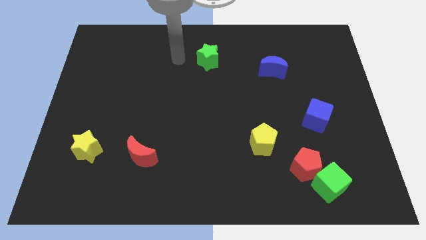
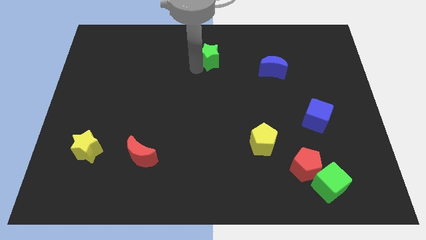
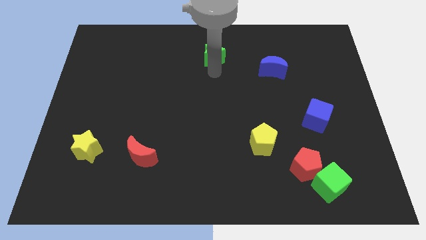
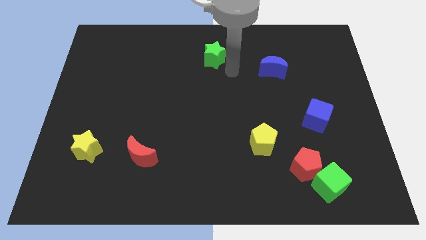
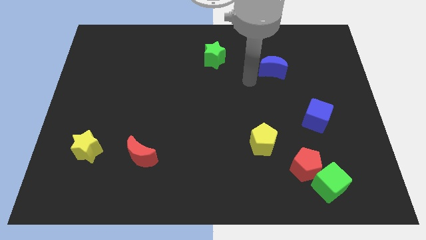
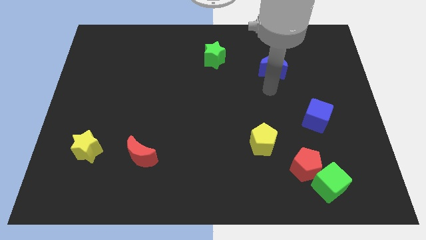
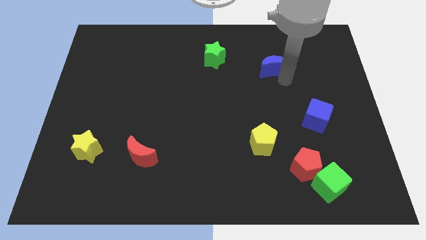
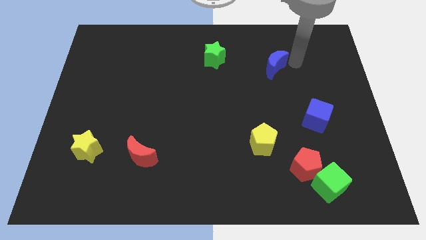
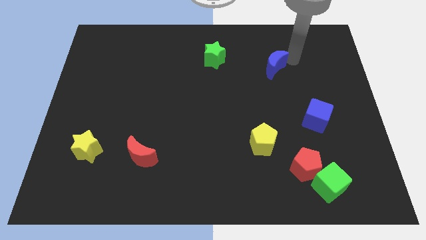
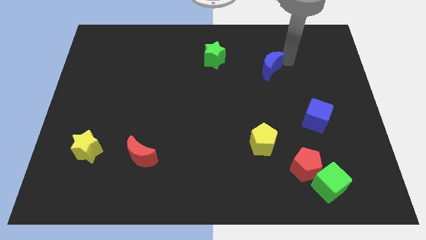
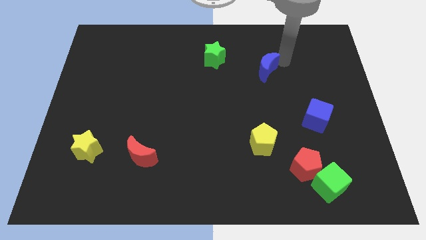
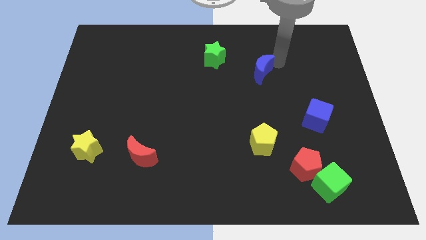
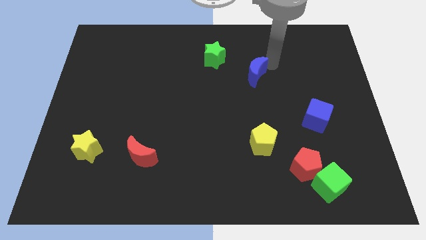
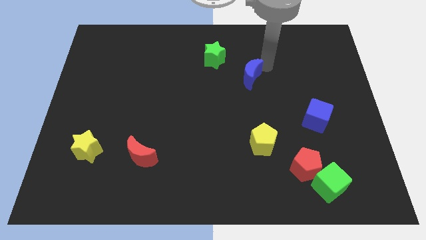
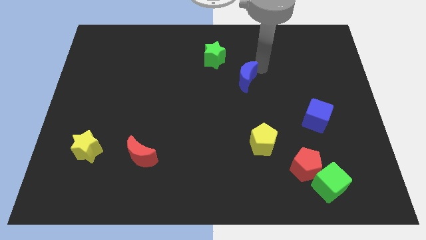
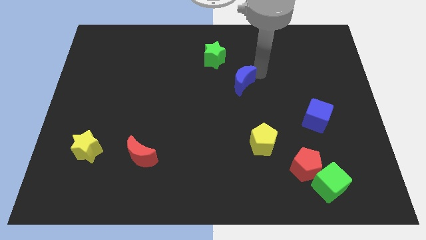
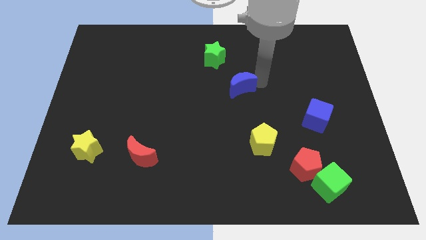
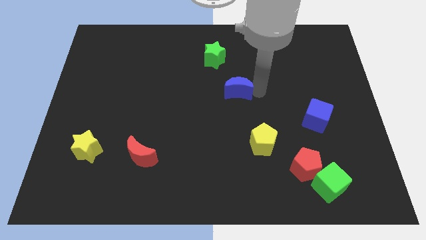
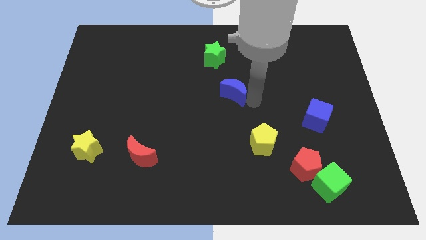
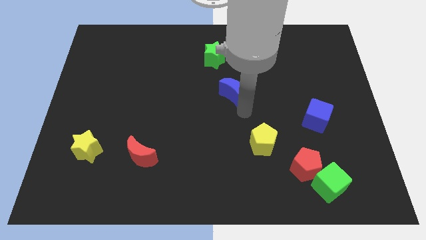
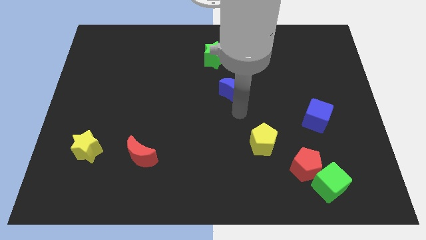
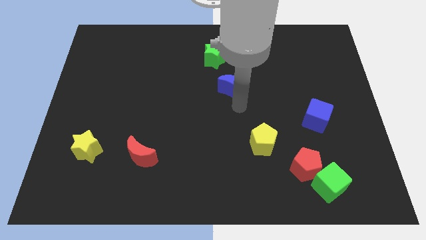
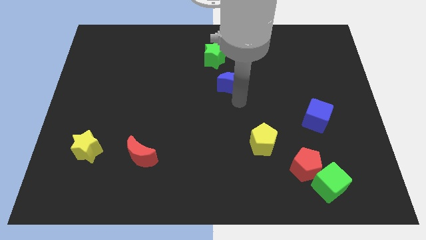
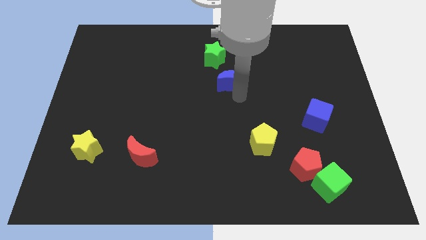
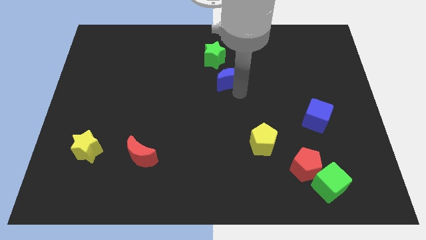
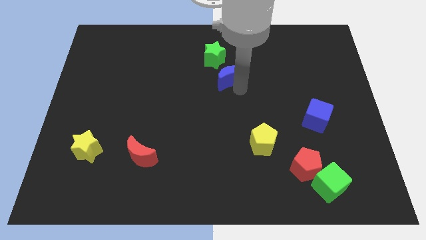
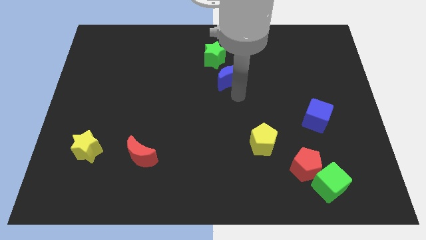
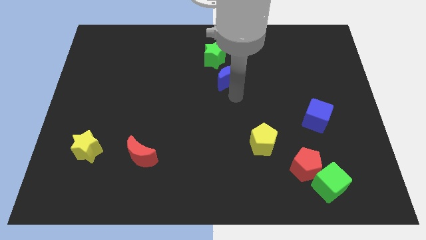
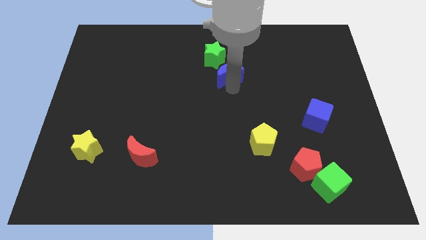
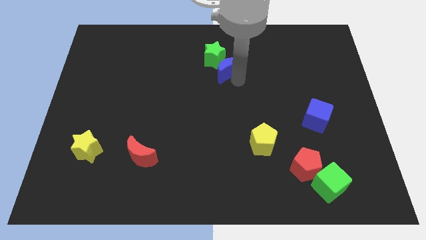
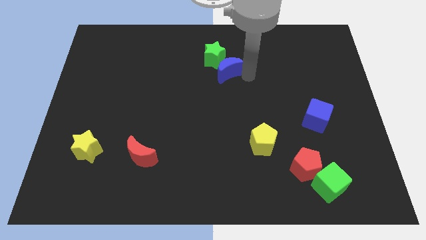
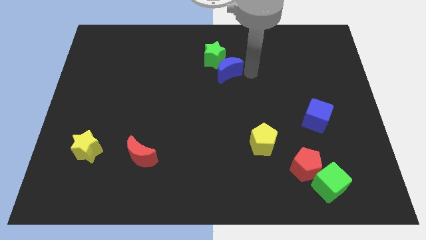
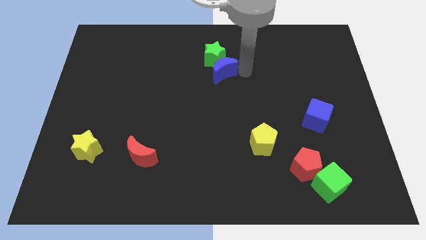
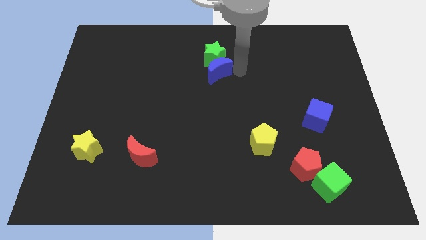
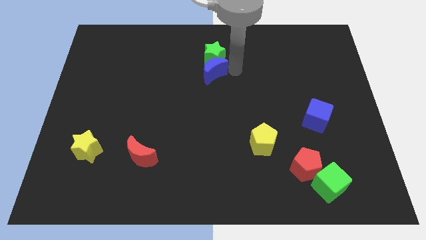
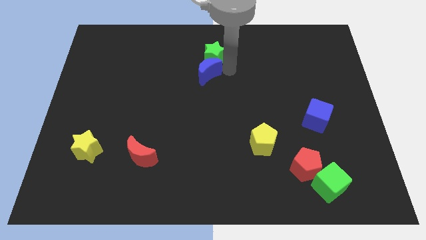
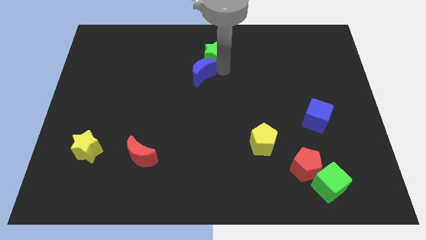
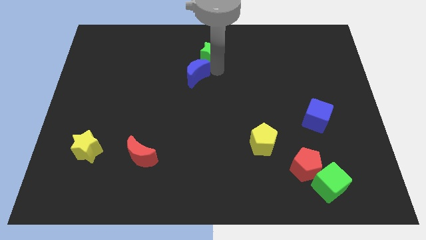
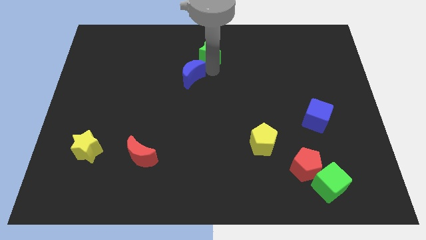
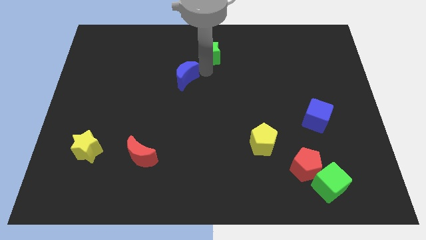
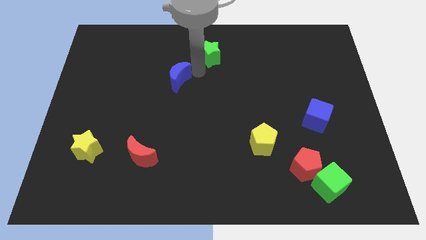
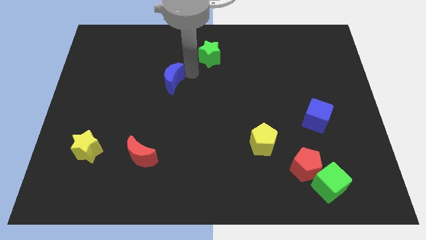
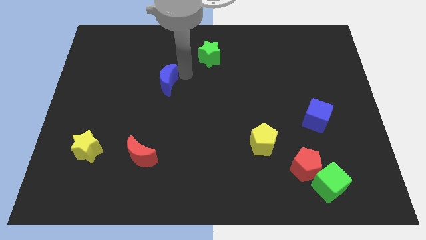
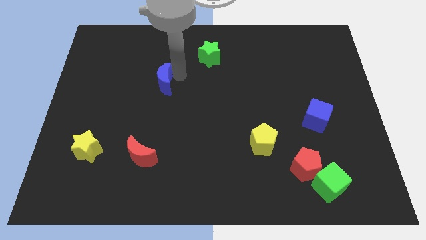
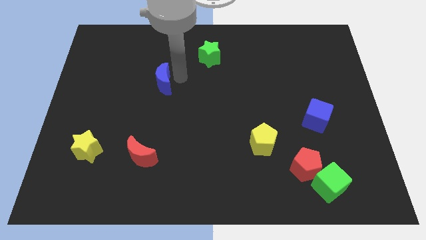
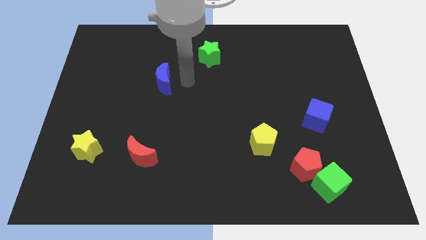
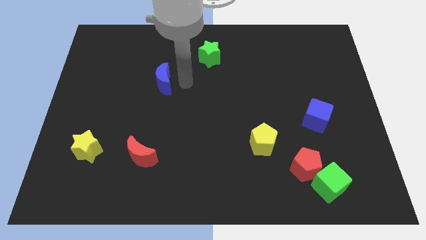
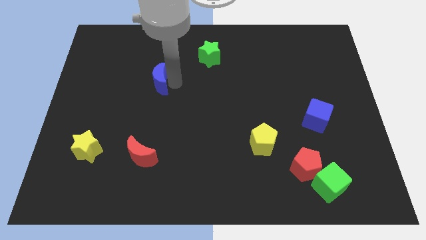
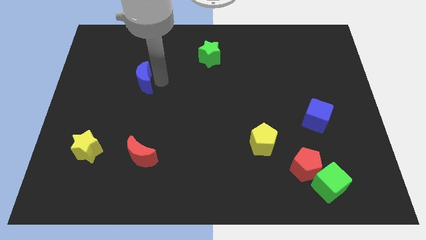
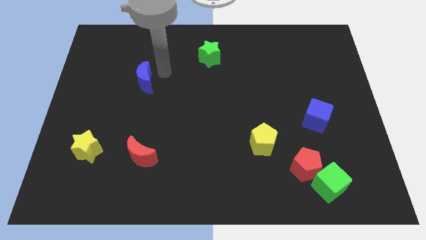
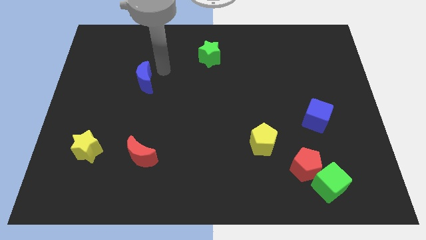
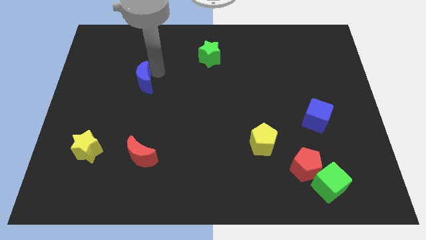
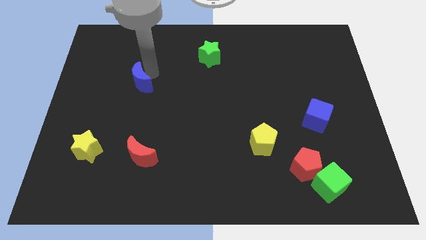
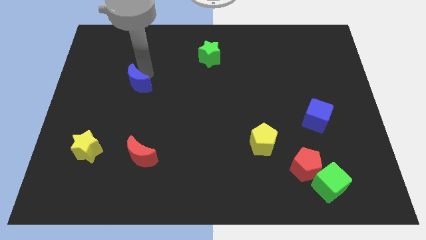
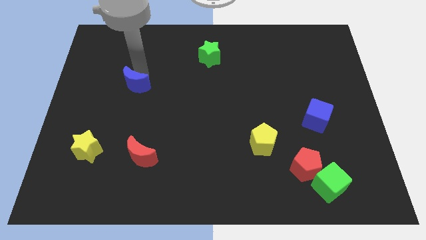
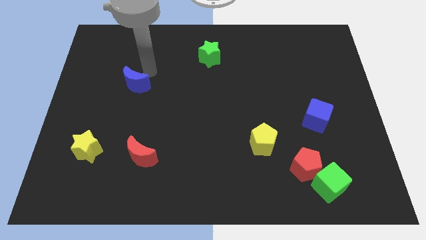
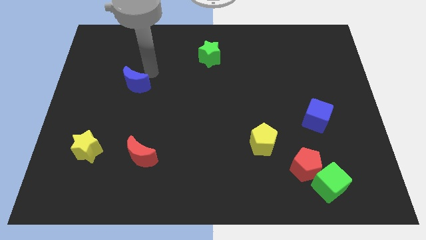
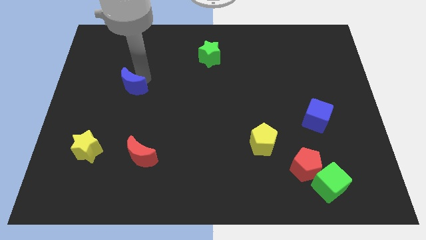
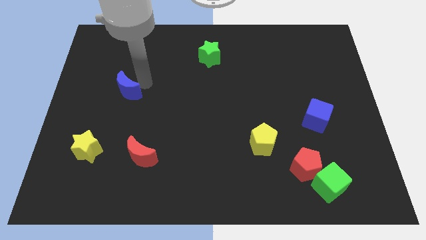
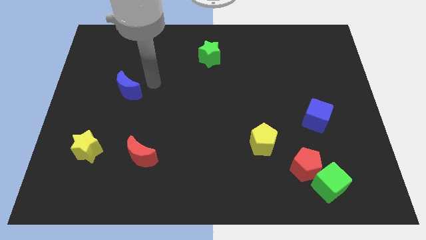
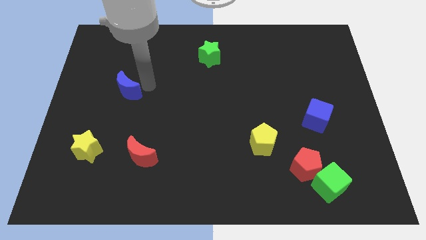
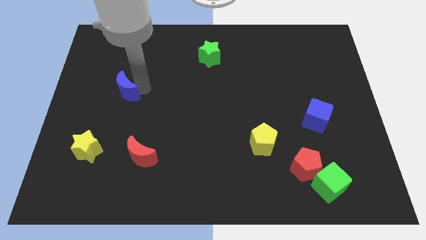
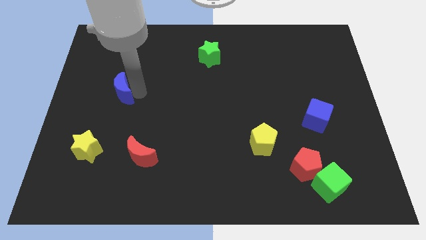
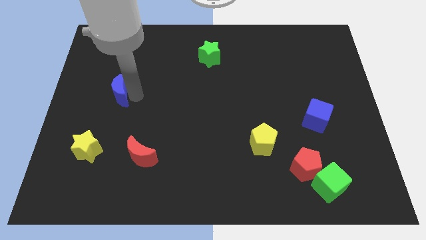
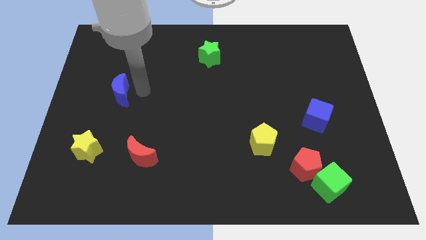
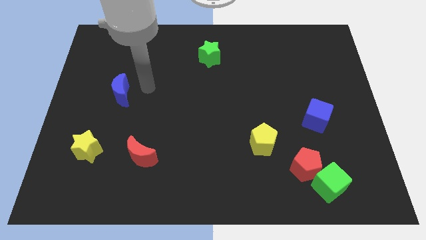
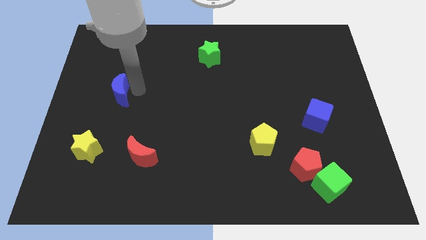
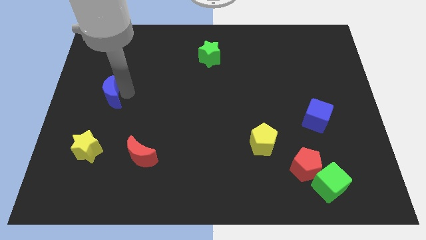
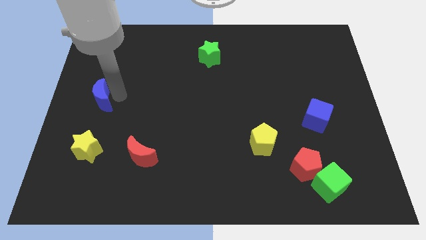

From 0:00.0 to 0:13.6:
slide the blue moon to the left side

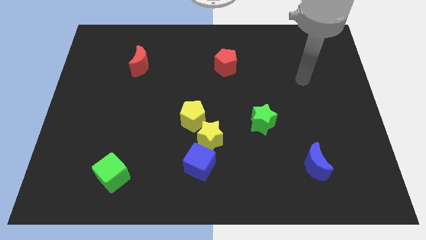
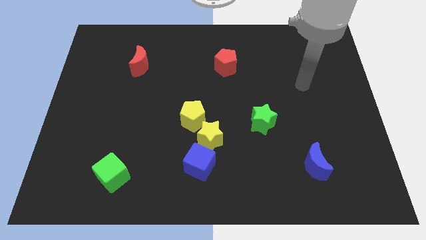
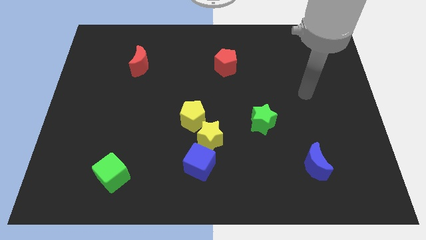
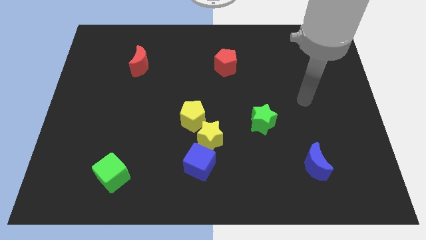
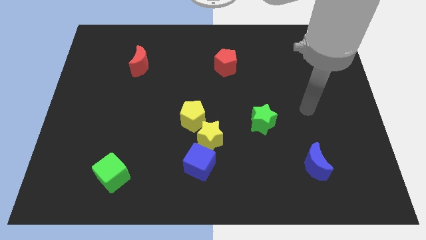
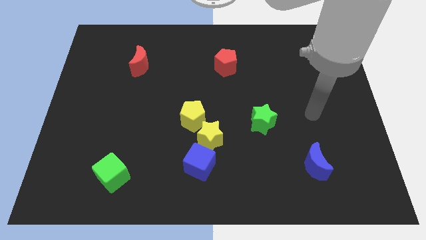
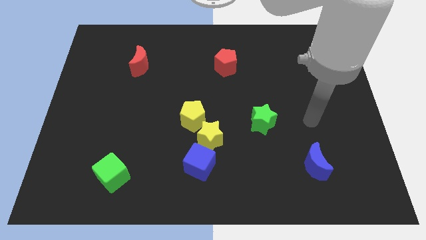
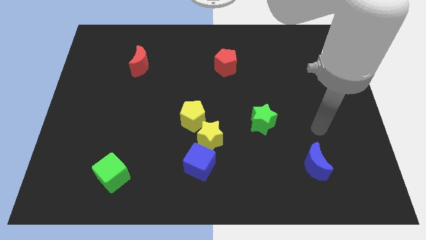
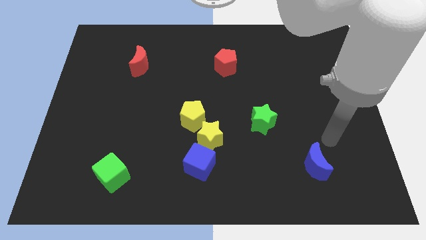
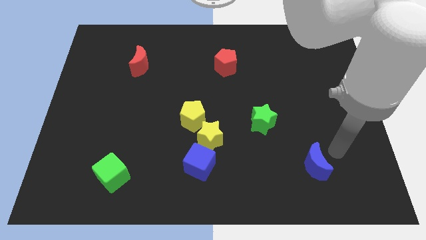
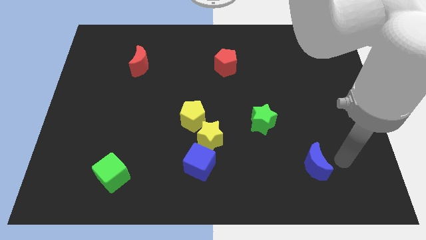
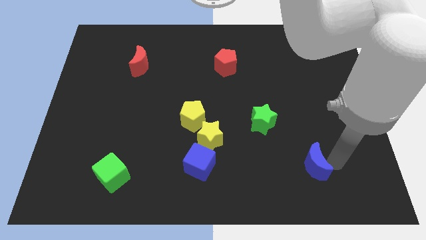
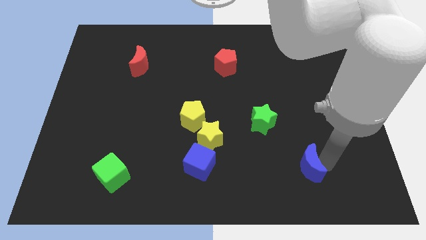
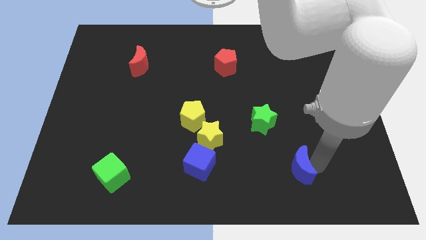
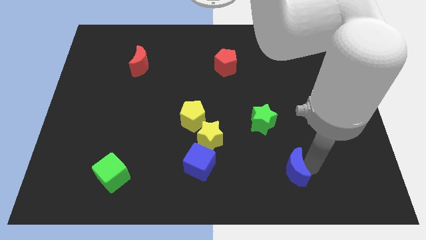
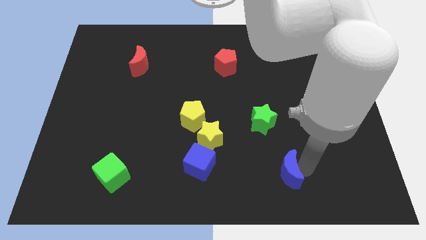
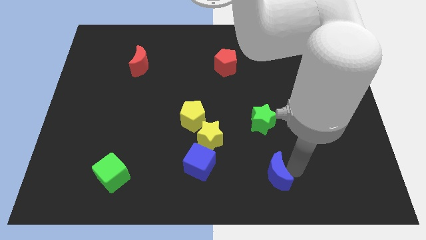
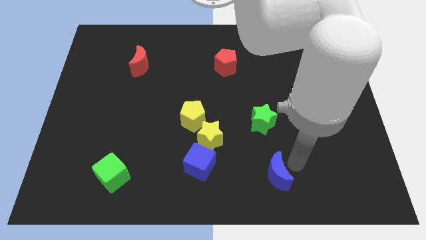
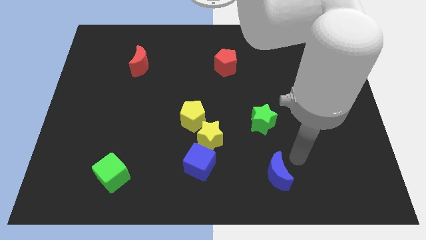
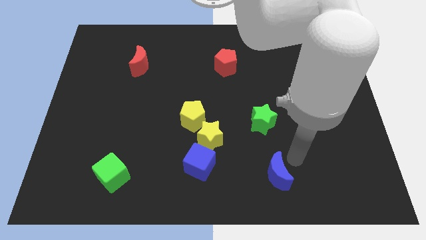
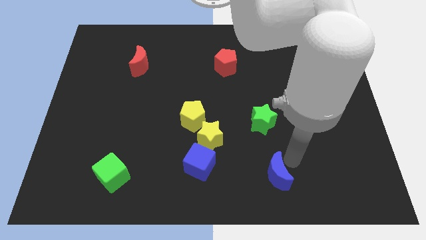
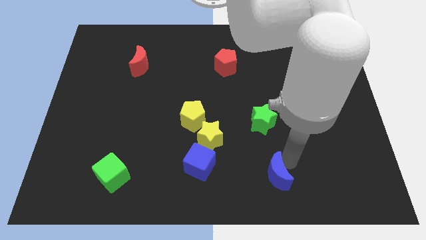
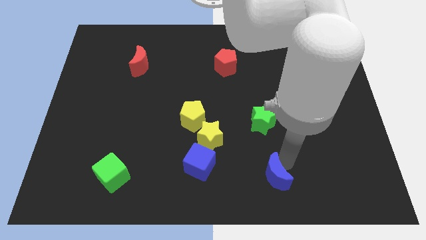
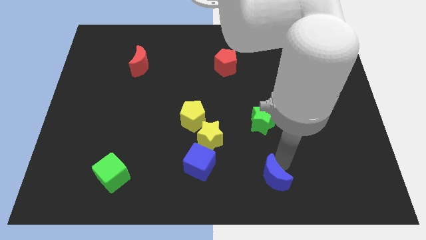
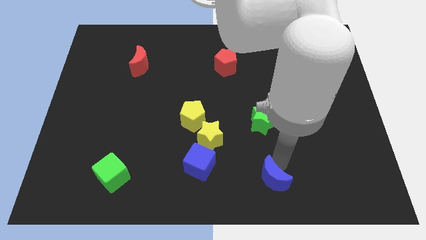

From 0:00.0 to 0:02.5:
move the blue moon to the bottom side
